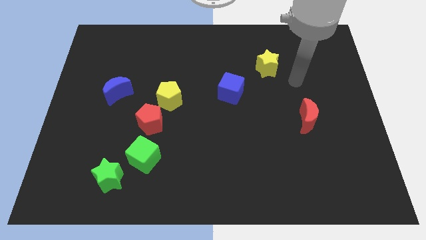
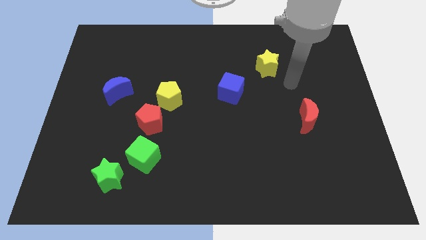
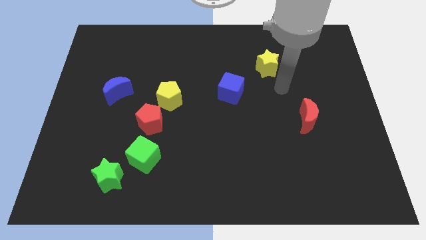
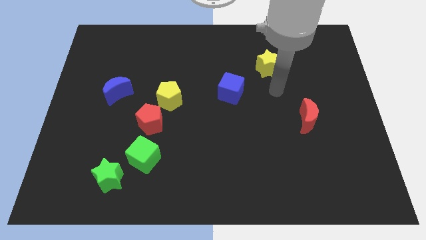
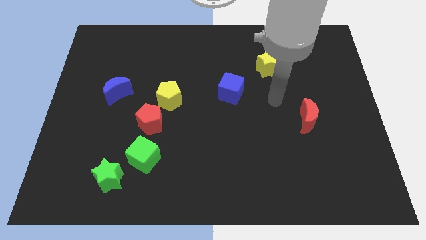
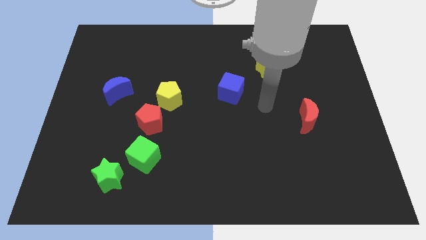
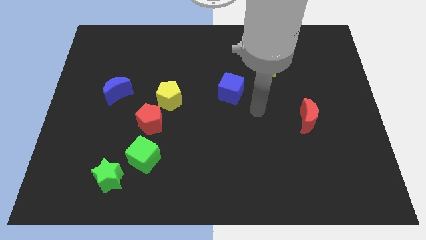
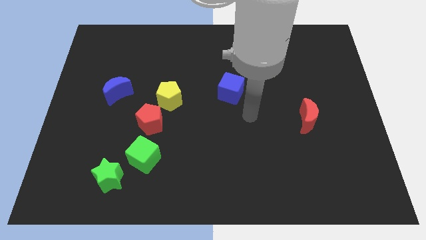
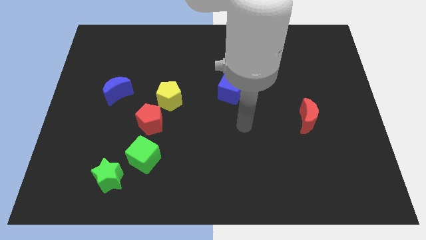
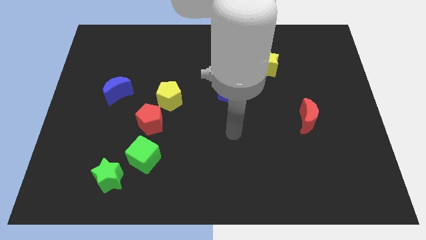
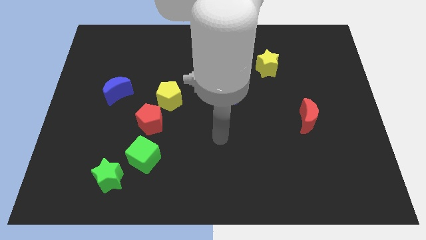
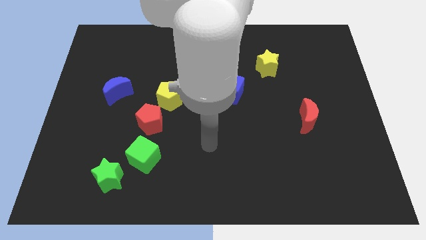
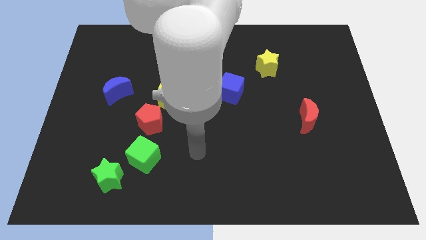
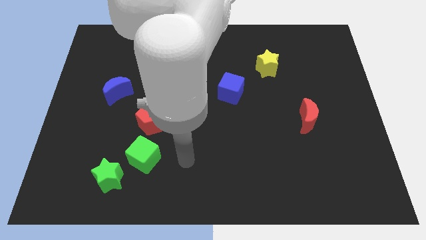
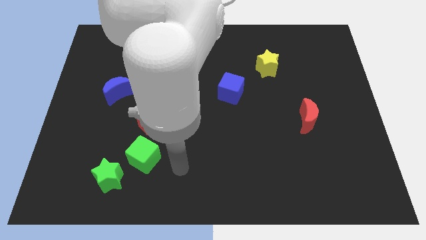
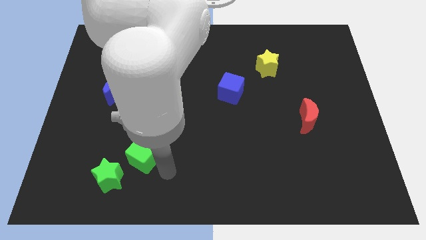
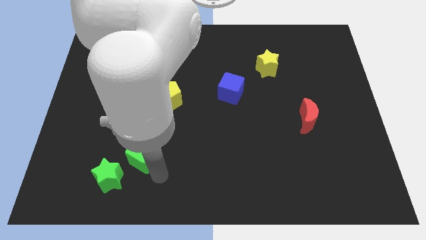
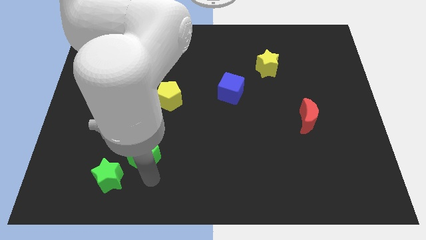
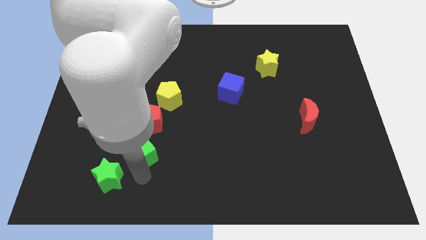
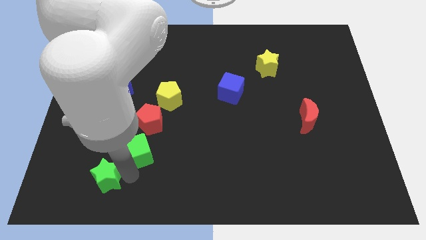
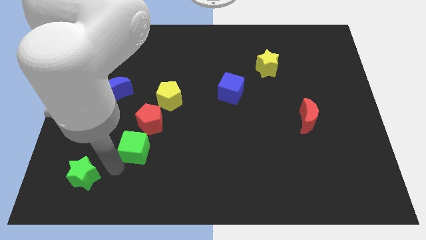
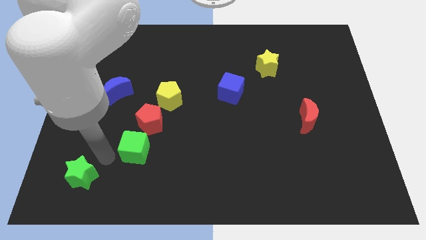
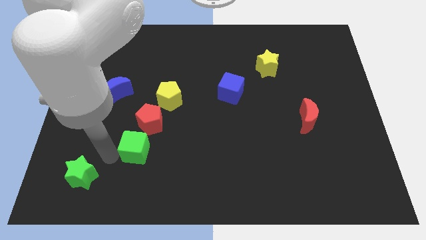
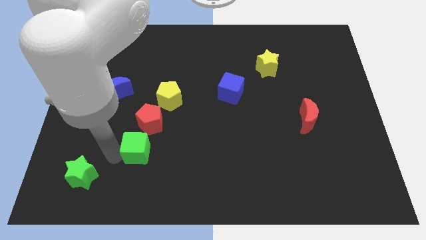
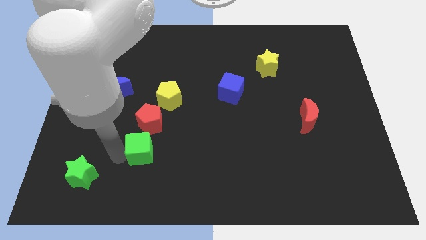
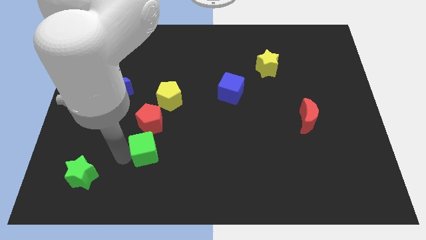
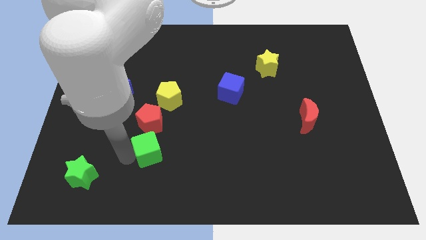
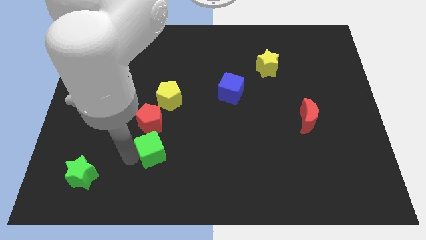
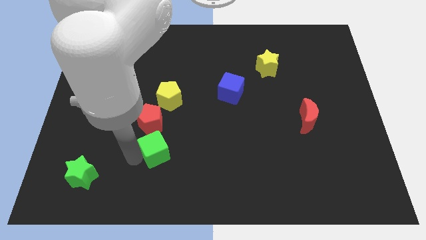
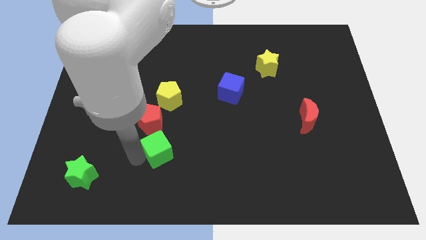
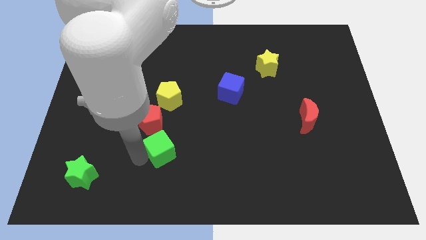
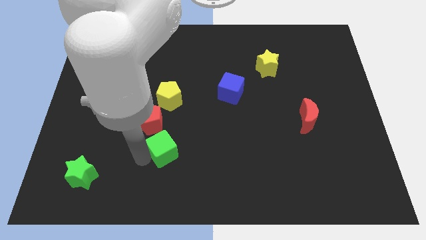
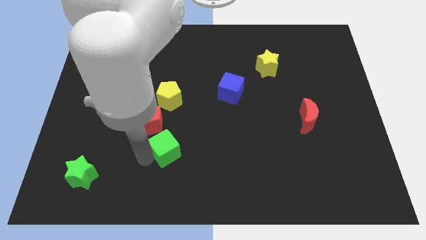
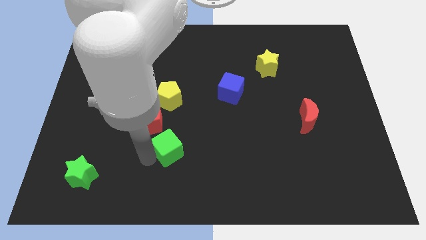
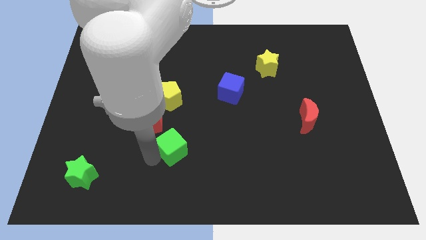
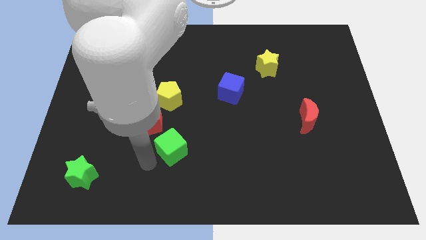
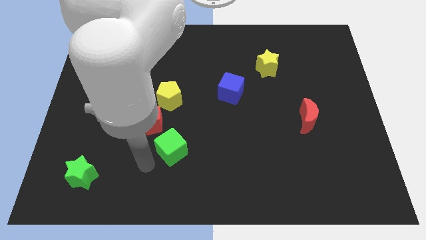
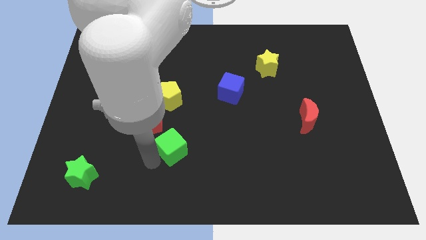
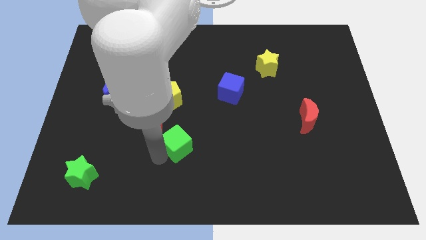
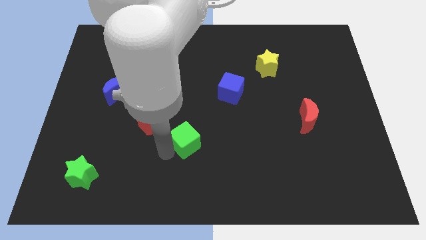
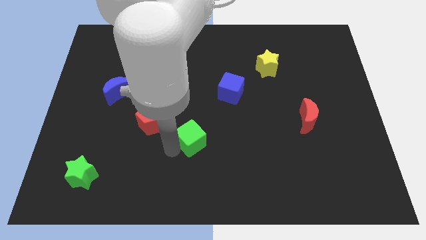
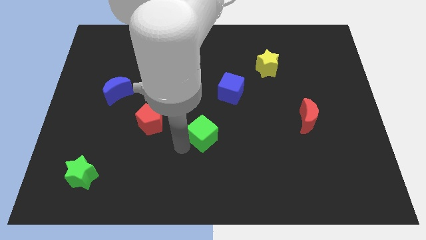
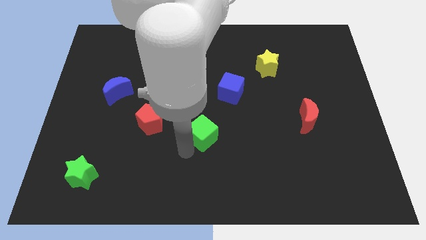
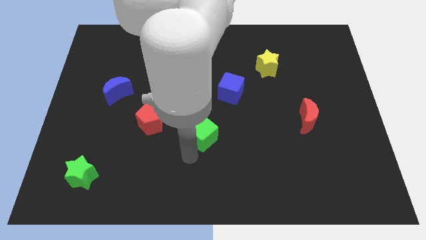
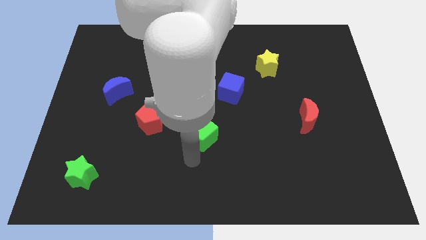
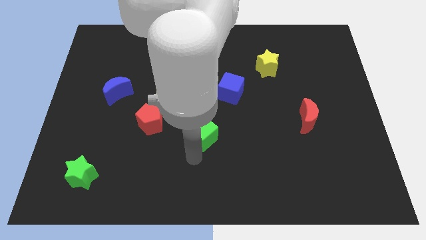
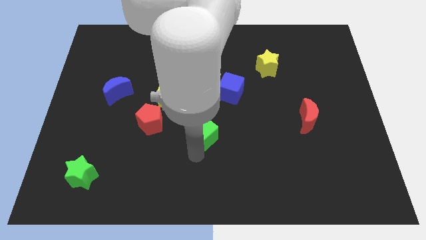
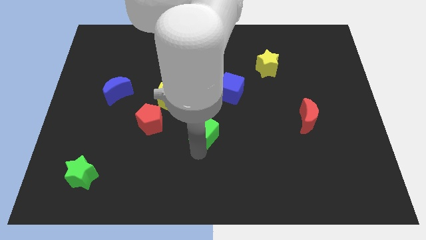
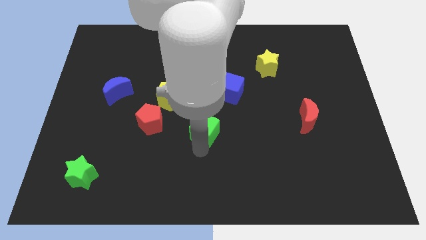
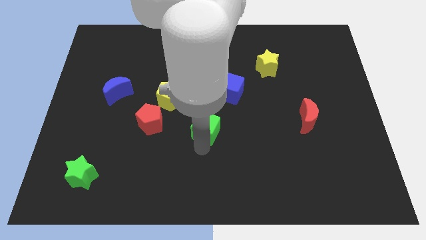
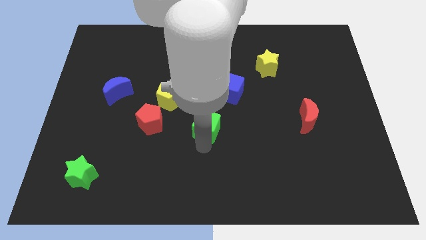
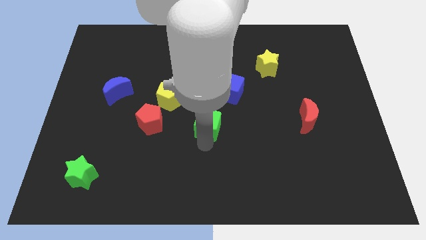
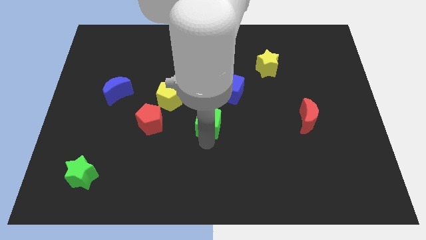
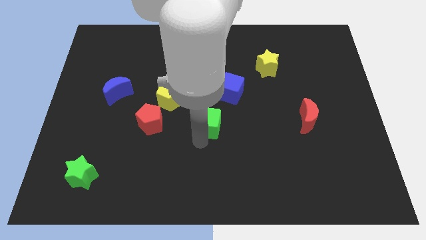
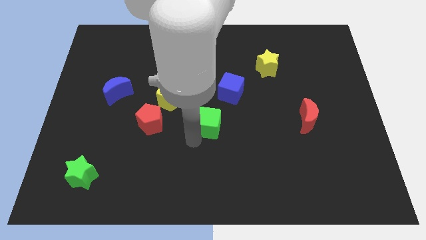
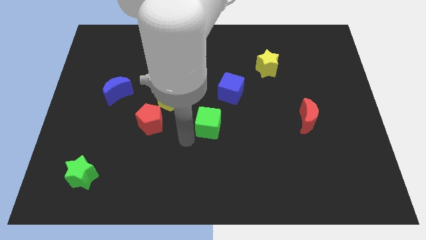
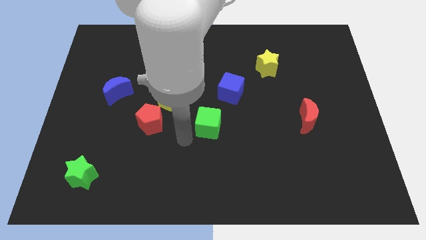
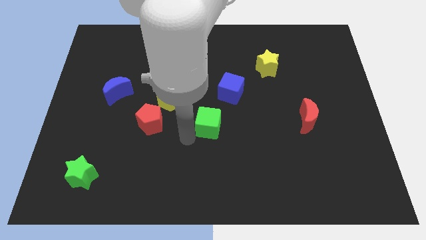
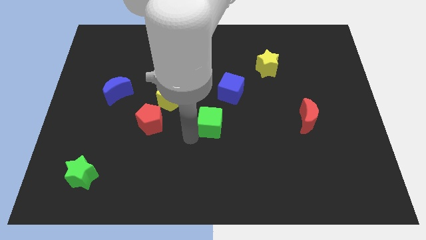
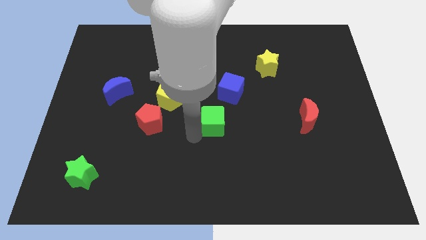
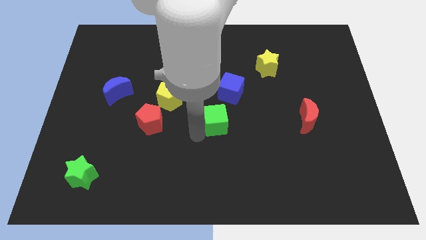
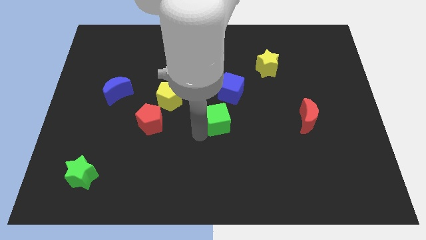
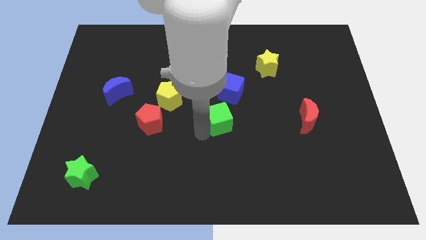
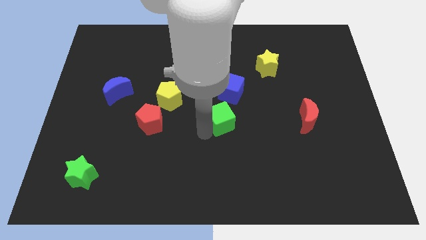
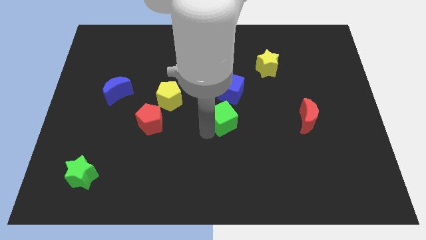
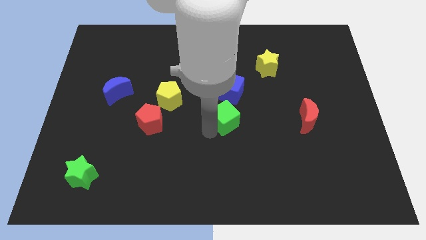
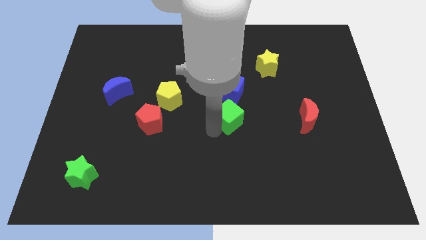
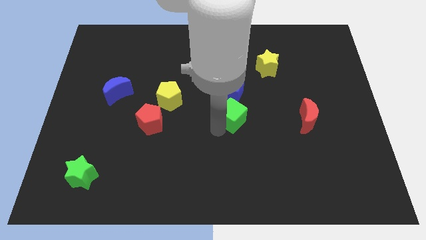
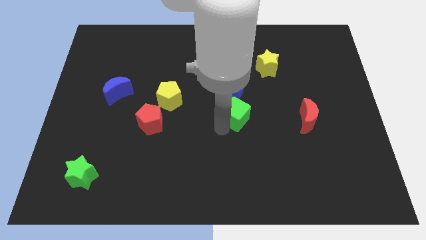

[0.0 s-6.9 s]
slide the green cube diagonally up and right

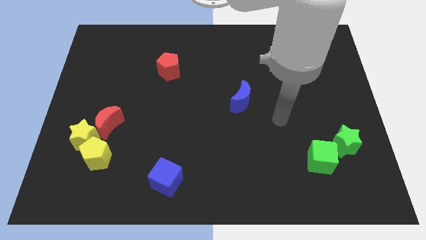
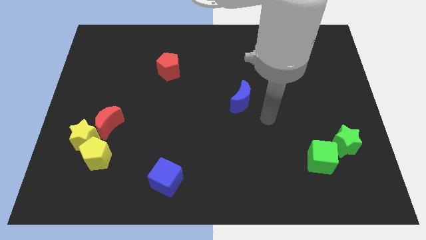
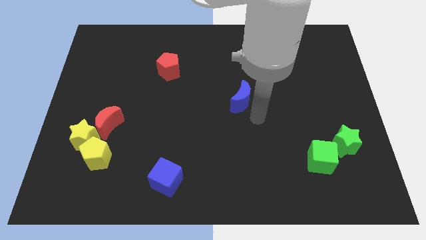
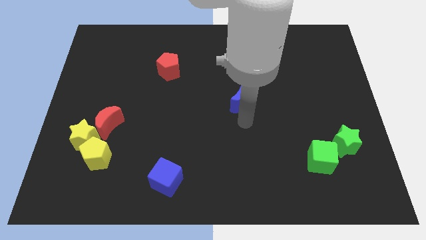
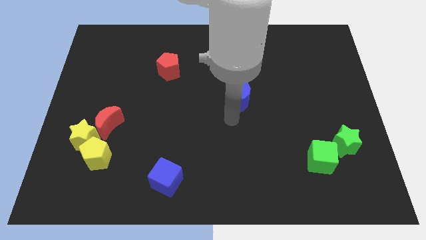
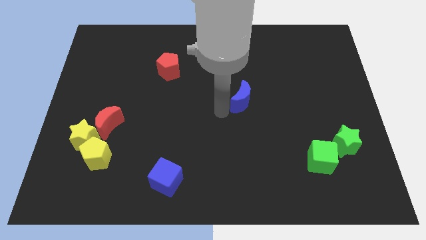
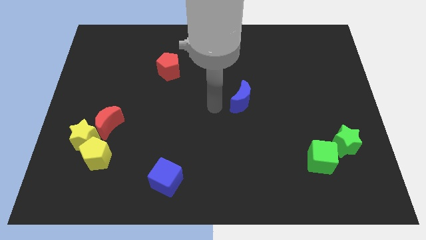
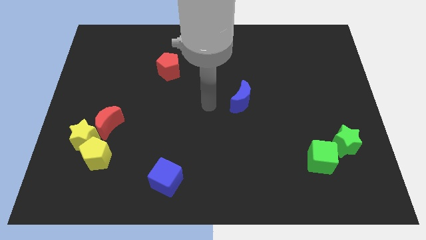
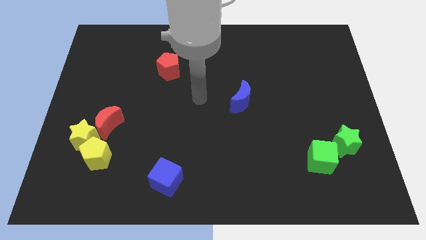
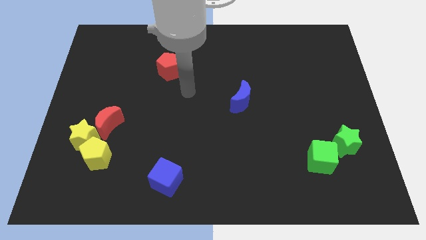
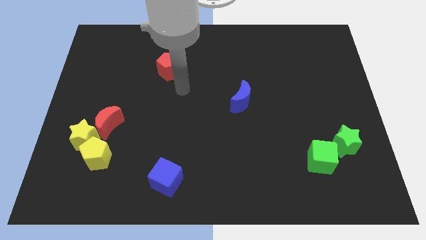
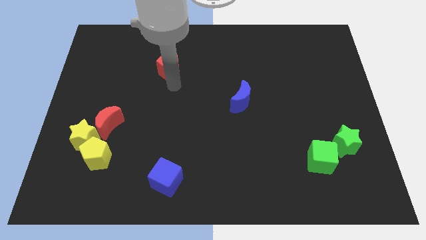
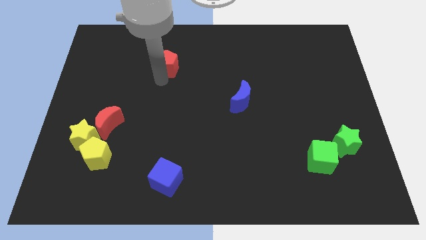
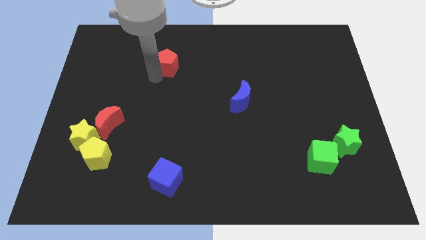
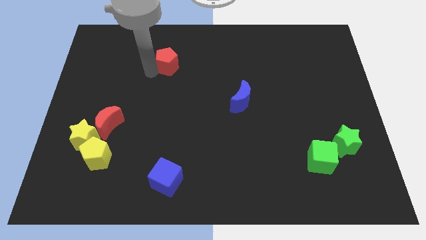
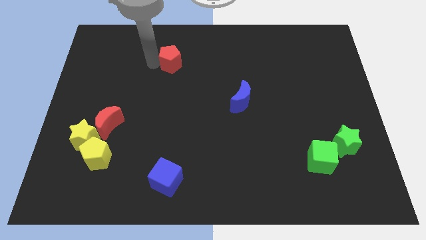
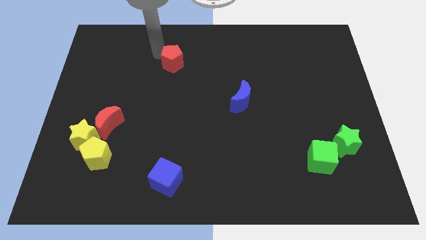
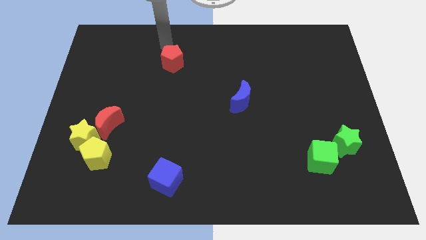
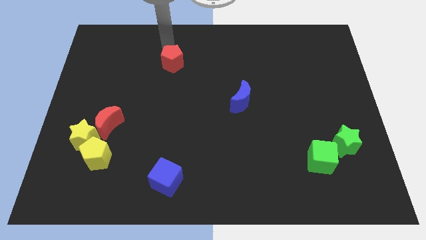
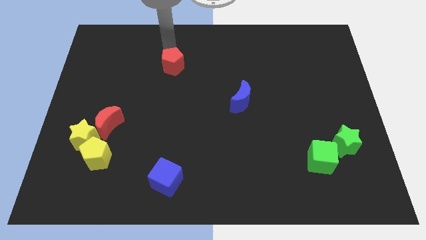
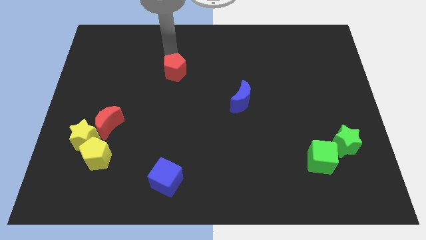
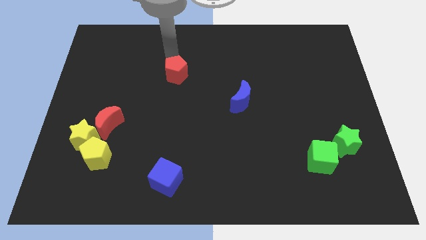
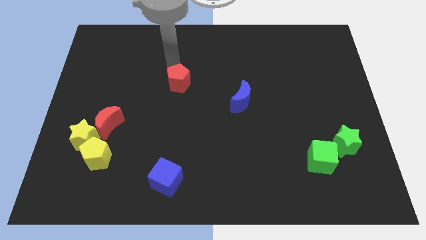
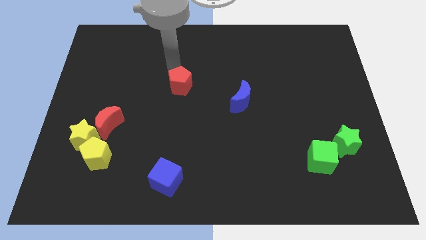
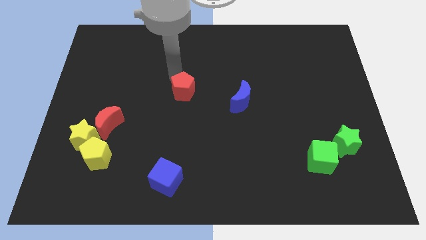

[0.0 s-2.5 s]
move the red pentagon down and then right slightly
